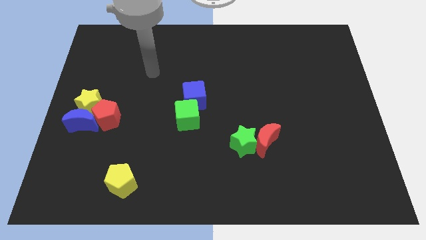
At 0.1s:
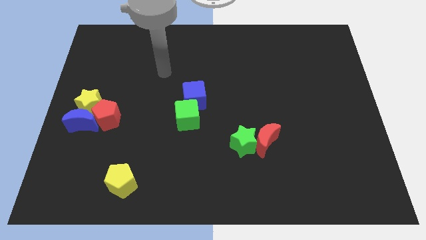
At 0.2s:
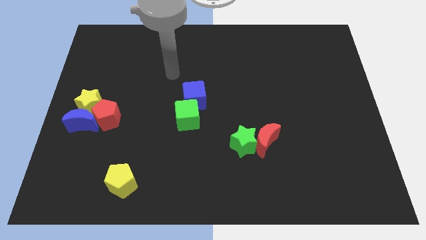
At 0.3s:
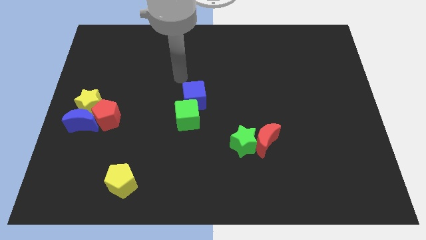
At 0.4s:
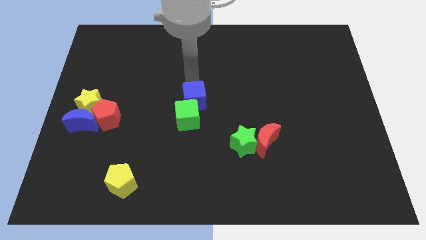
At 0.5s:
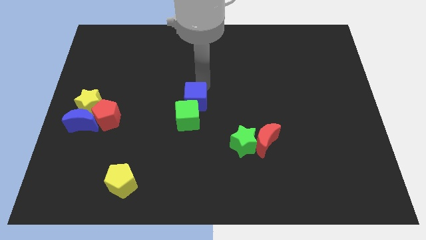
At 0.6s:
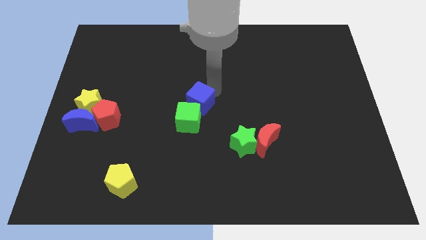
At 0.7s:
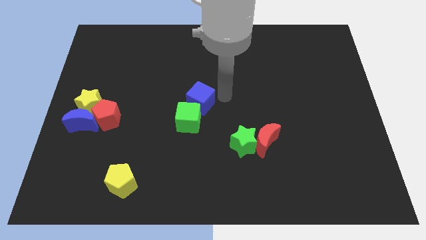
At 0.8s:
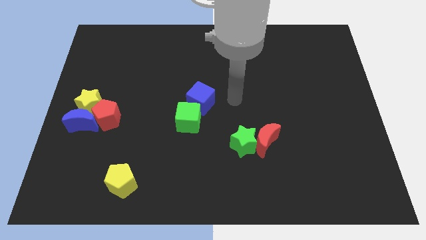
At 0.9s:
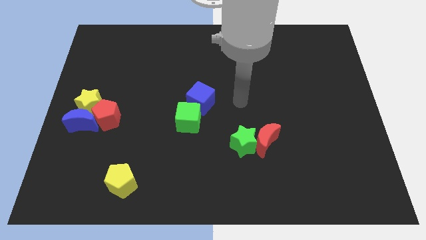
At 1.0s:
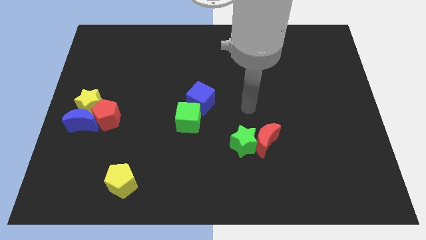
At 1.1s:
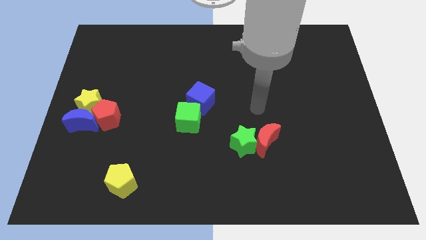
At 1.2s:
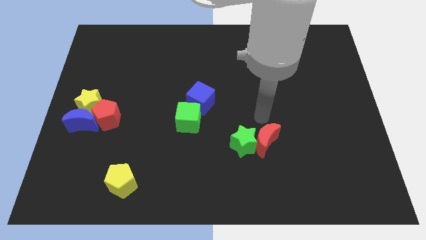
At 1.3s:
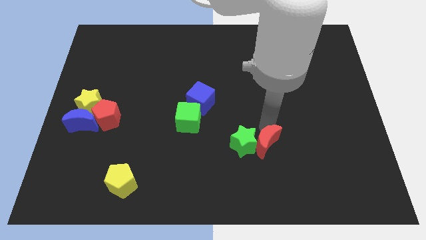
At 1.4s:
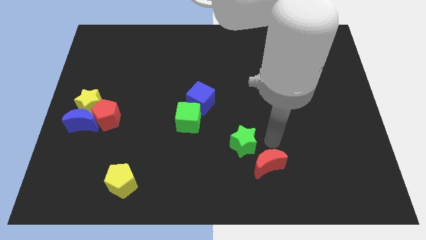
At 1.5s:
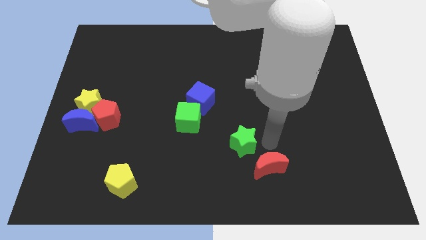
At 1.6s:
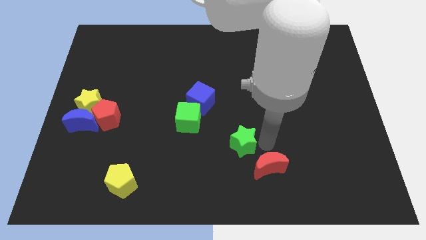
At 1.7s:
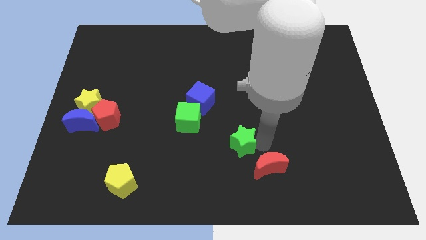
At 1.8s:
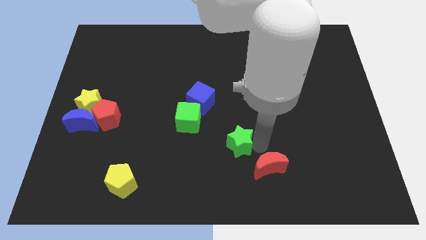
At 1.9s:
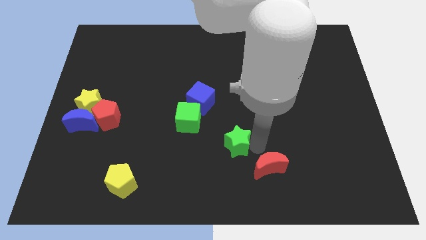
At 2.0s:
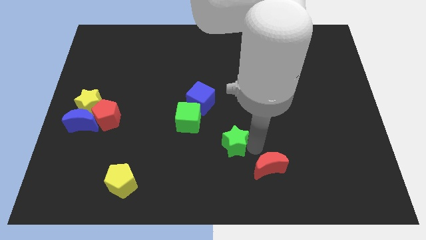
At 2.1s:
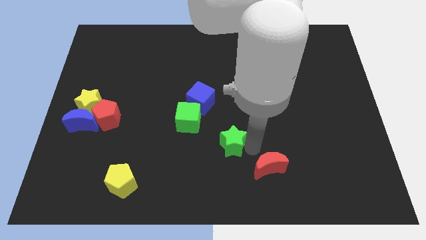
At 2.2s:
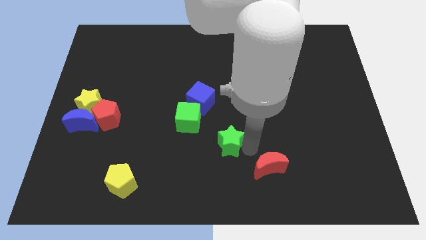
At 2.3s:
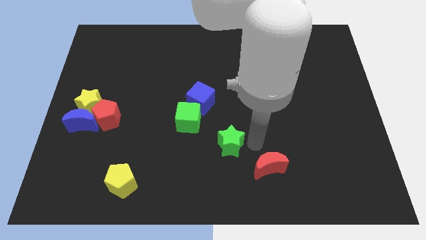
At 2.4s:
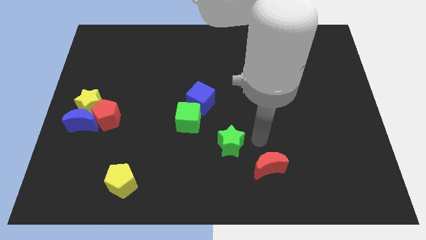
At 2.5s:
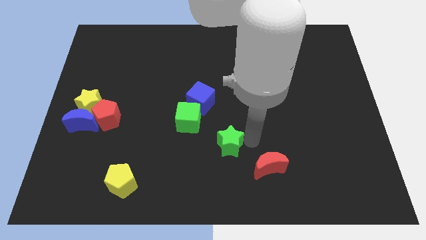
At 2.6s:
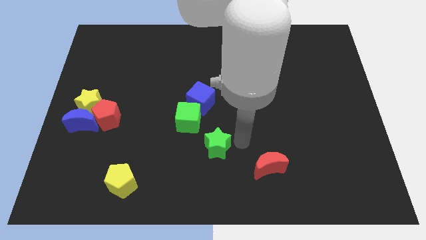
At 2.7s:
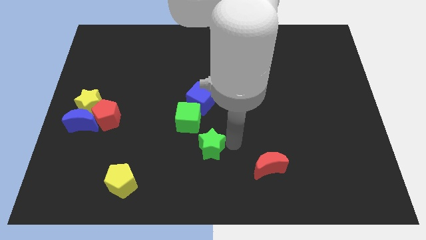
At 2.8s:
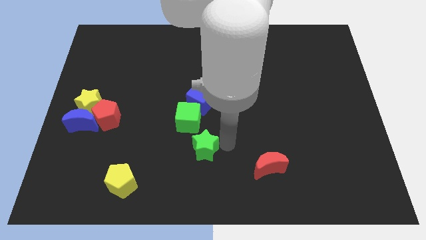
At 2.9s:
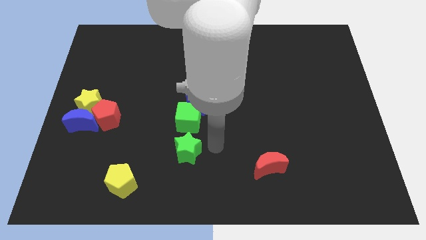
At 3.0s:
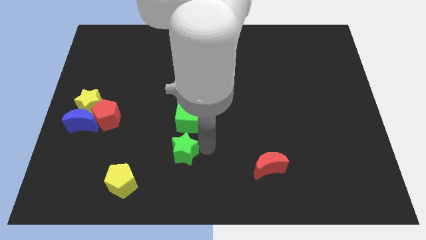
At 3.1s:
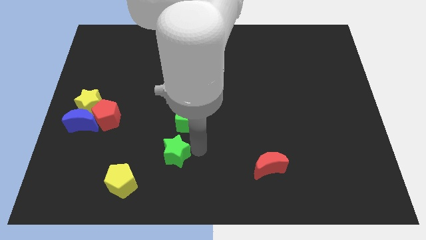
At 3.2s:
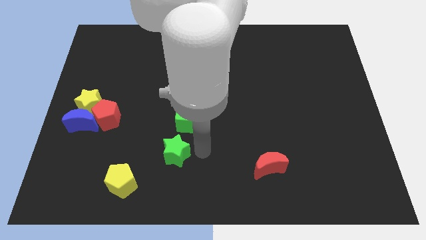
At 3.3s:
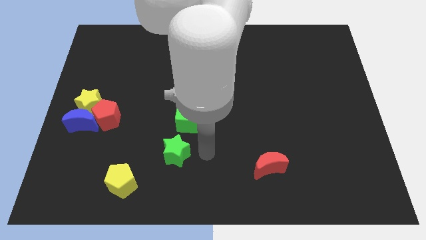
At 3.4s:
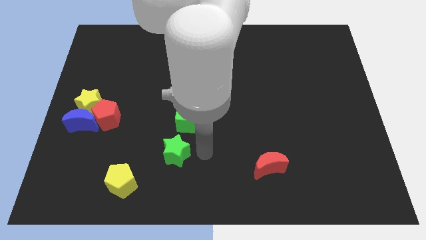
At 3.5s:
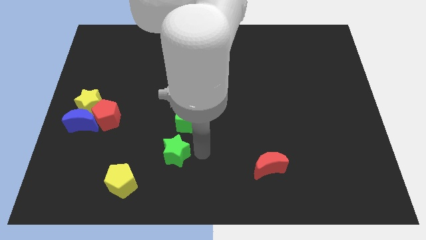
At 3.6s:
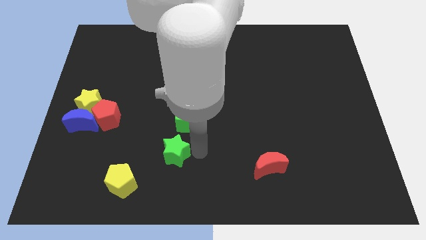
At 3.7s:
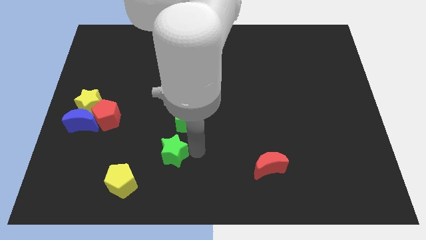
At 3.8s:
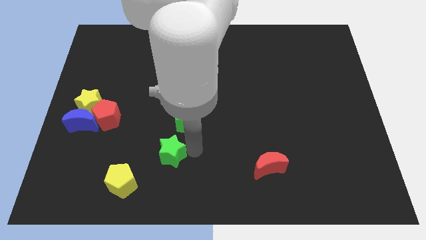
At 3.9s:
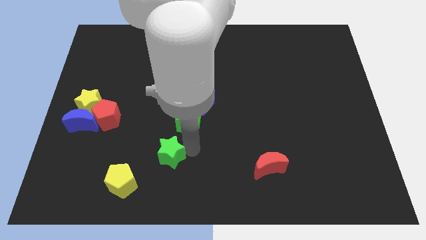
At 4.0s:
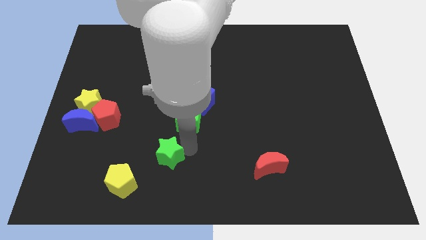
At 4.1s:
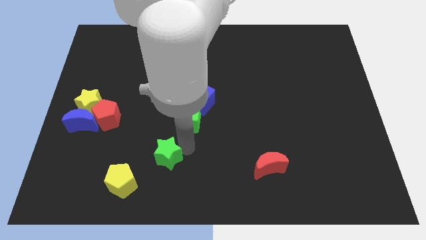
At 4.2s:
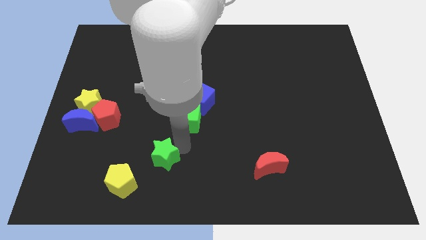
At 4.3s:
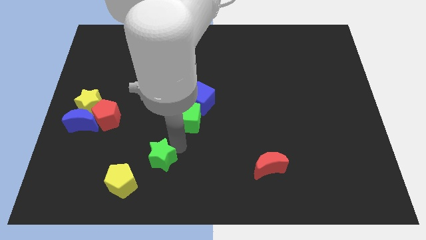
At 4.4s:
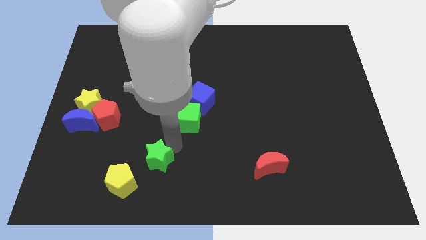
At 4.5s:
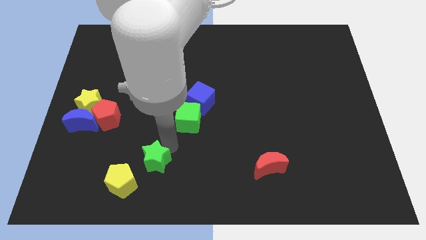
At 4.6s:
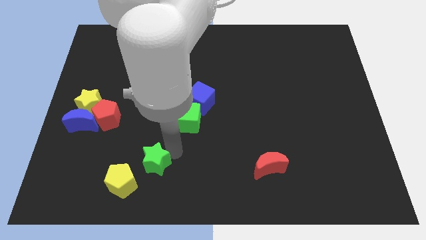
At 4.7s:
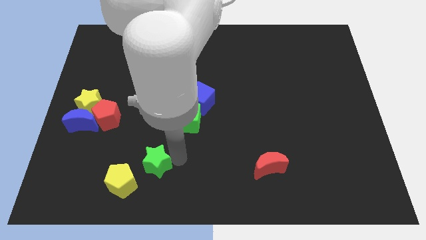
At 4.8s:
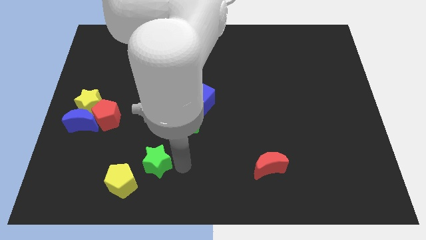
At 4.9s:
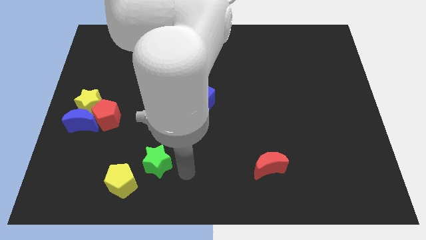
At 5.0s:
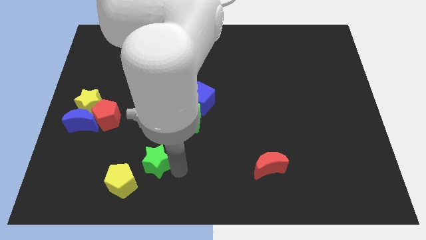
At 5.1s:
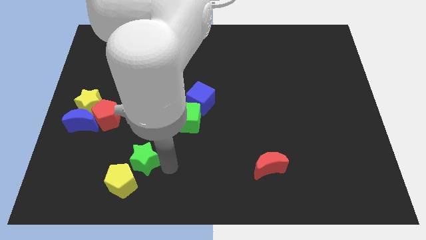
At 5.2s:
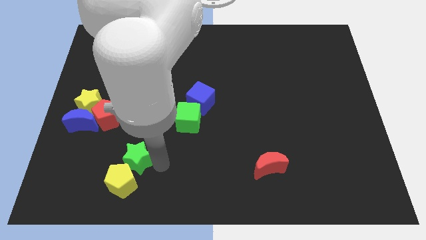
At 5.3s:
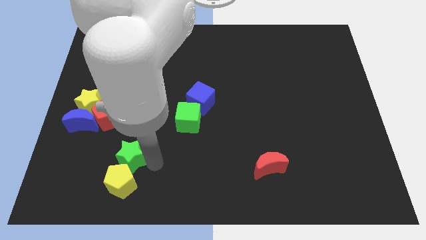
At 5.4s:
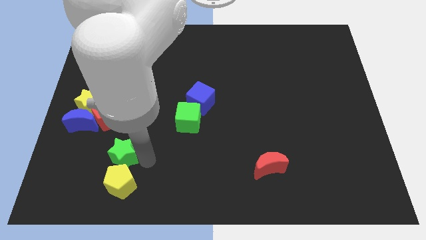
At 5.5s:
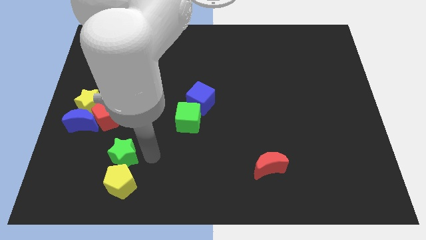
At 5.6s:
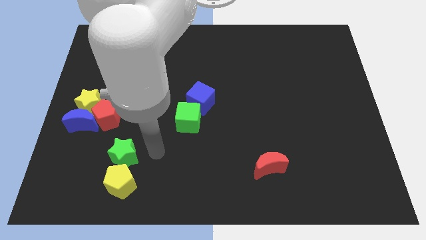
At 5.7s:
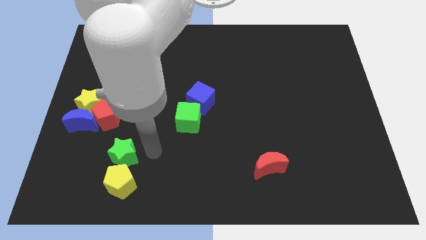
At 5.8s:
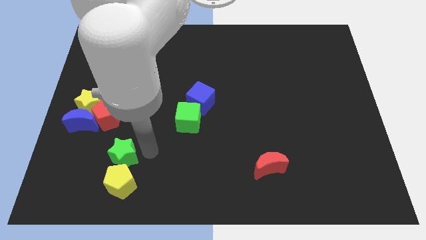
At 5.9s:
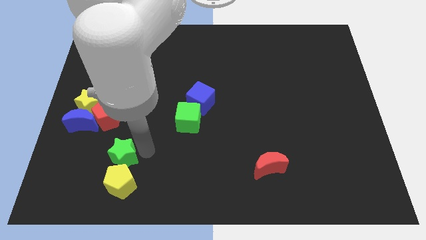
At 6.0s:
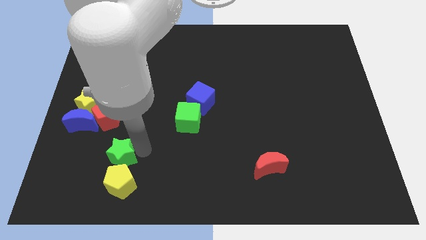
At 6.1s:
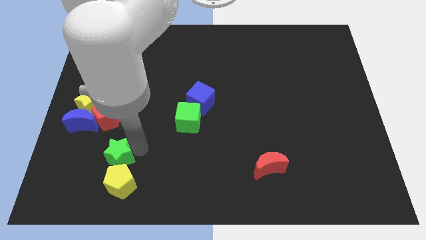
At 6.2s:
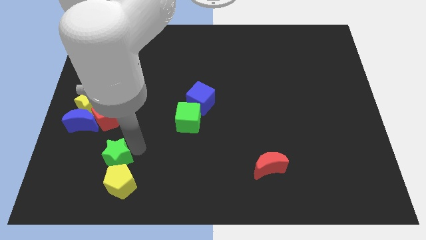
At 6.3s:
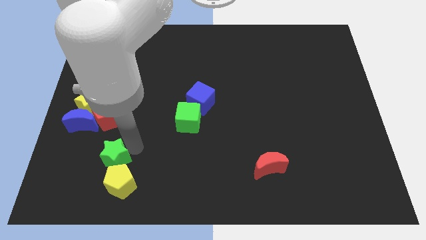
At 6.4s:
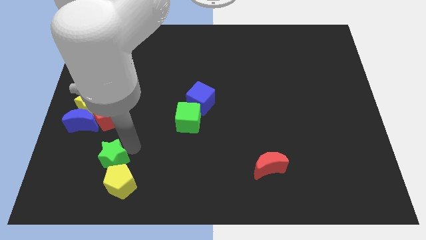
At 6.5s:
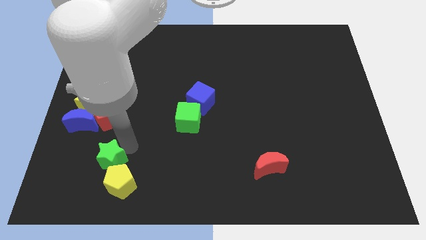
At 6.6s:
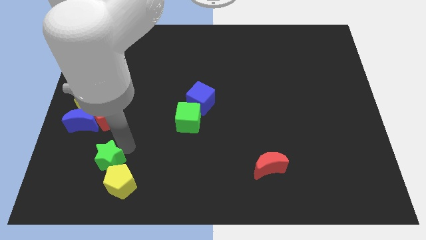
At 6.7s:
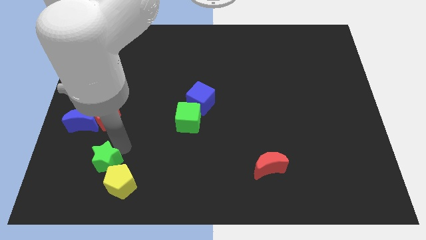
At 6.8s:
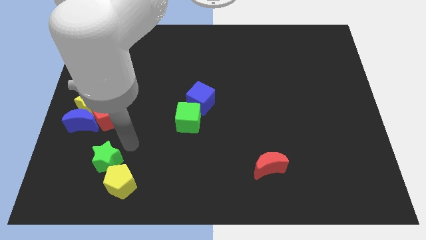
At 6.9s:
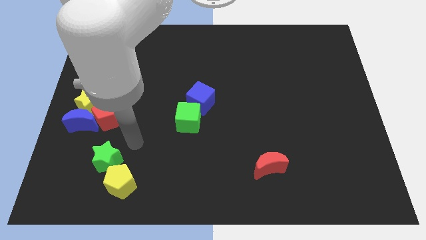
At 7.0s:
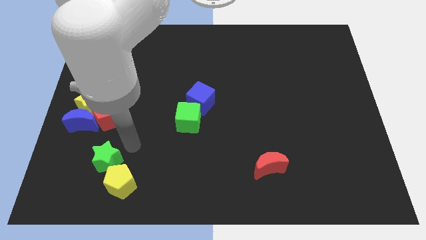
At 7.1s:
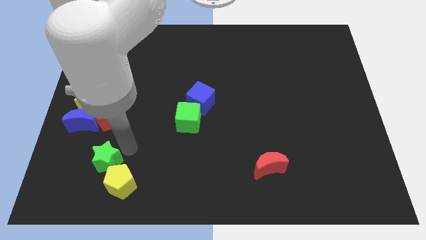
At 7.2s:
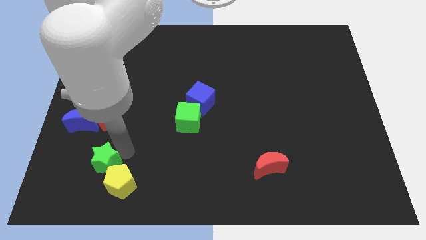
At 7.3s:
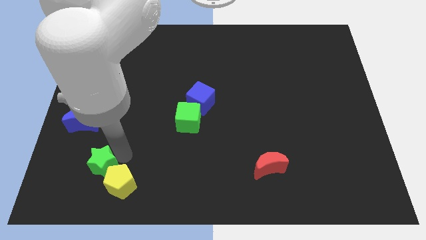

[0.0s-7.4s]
put the green star just left of the yellow pentagon

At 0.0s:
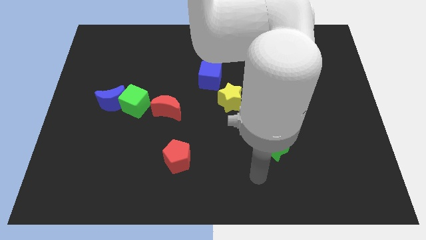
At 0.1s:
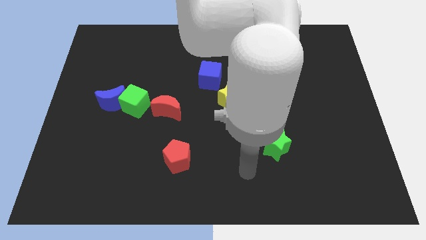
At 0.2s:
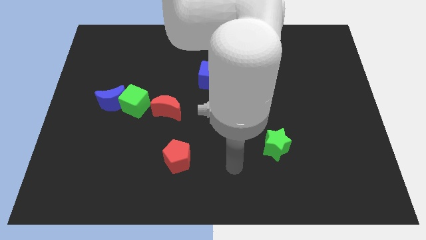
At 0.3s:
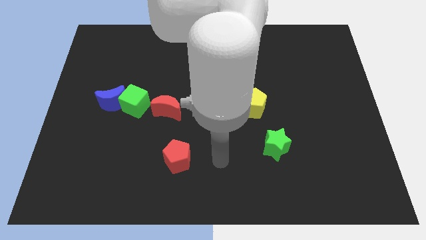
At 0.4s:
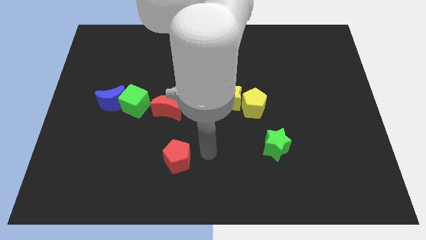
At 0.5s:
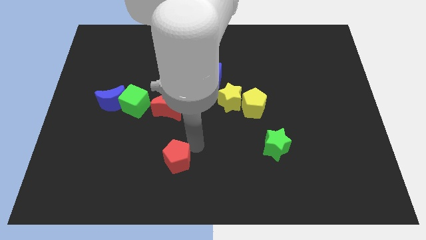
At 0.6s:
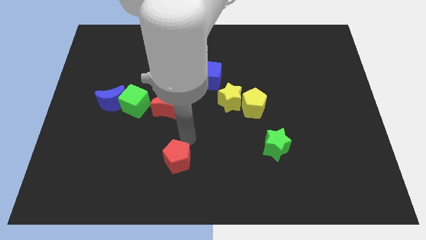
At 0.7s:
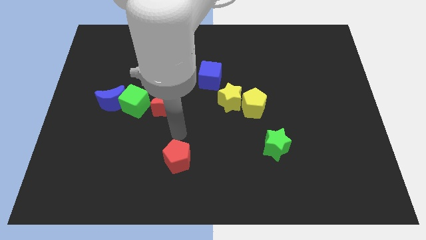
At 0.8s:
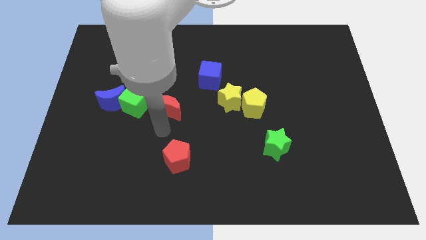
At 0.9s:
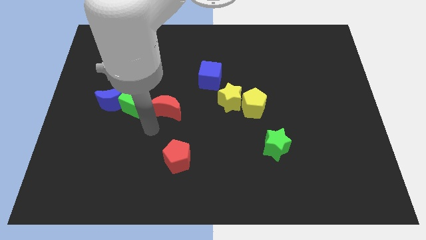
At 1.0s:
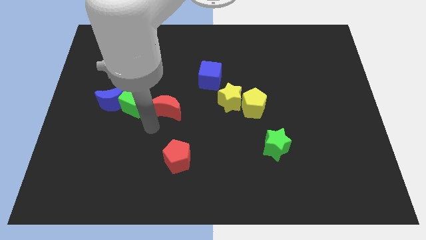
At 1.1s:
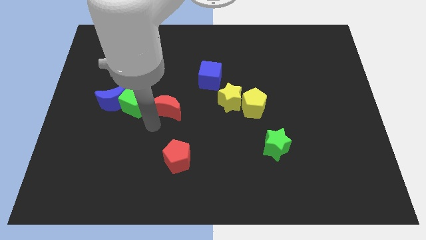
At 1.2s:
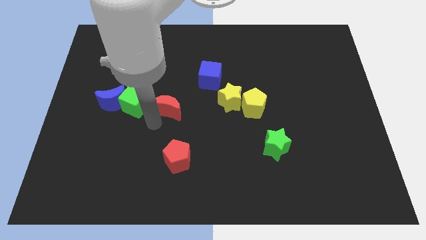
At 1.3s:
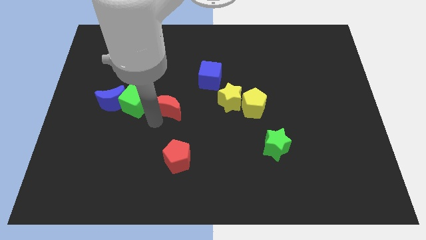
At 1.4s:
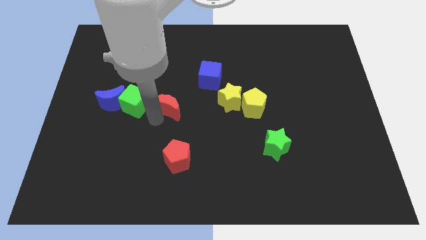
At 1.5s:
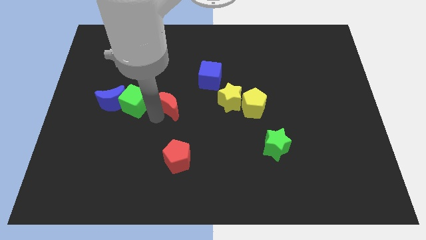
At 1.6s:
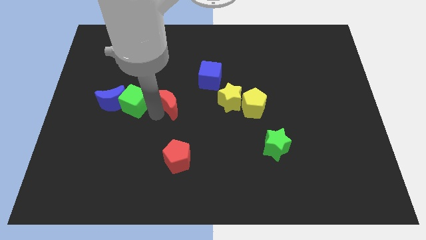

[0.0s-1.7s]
move the red moon diagonally down and to the left of the blue cube
